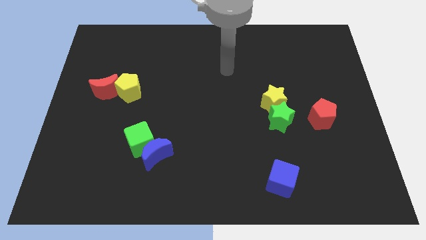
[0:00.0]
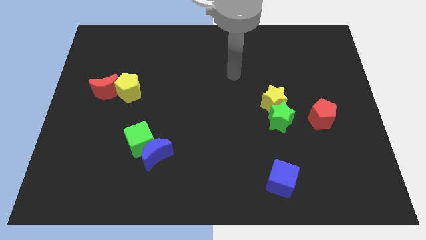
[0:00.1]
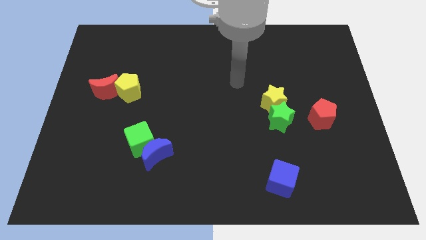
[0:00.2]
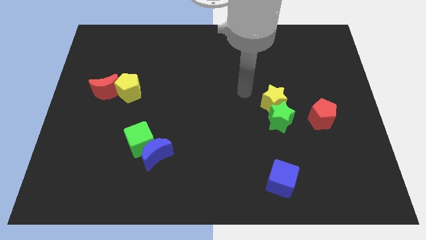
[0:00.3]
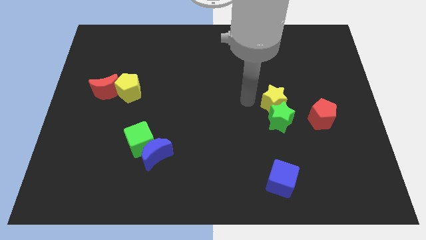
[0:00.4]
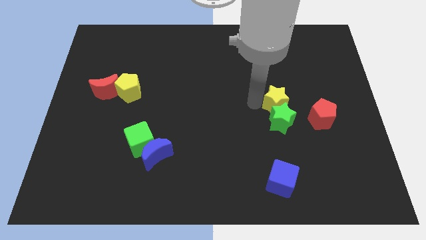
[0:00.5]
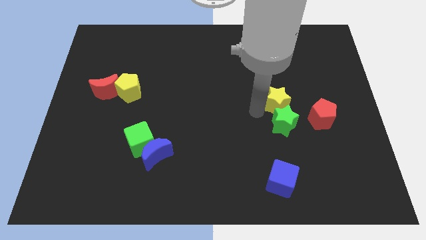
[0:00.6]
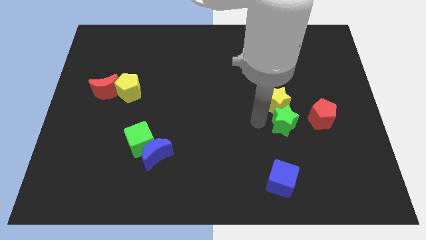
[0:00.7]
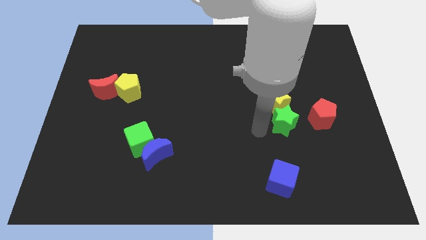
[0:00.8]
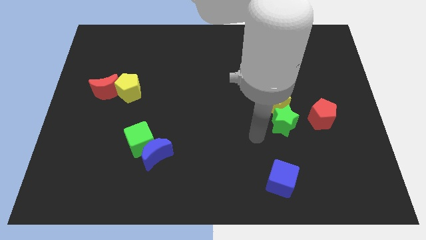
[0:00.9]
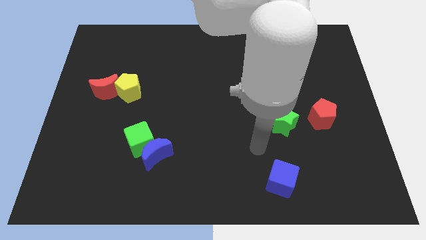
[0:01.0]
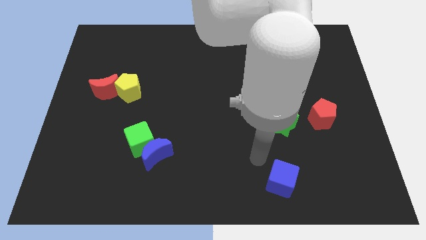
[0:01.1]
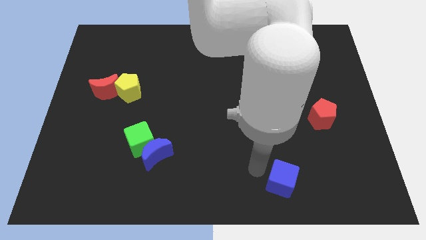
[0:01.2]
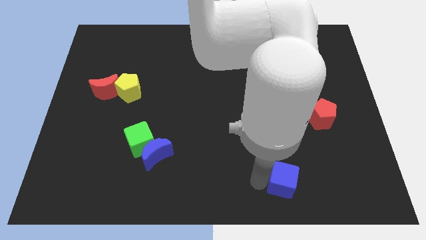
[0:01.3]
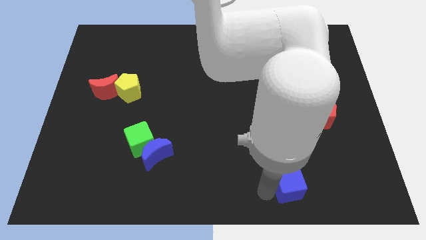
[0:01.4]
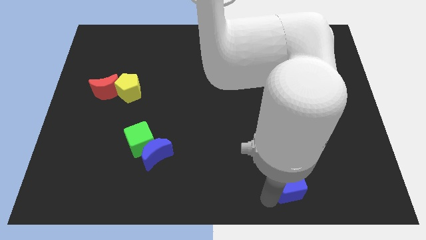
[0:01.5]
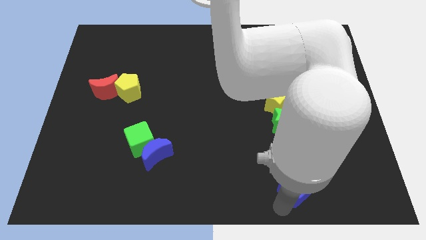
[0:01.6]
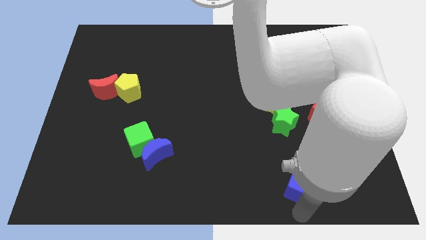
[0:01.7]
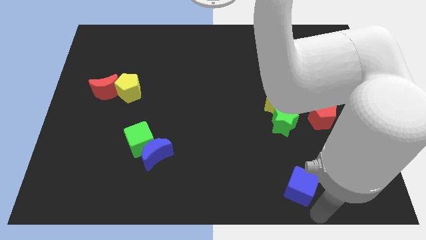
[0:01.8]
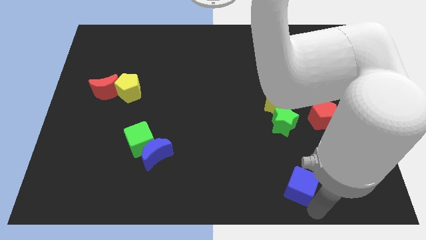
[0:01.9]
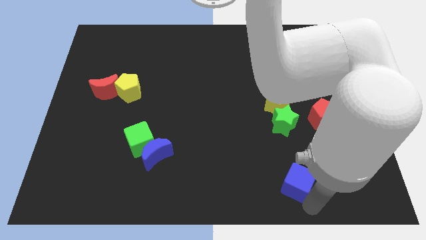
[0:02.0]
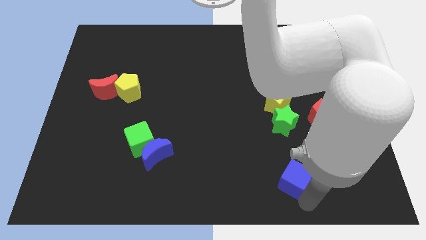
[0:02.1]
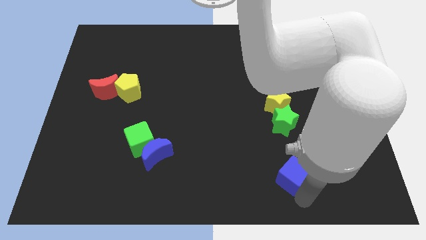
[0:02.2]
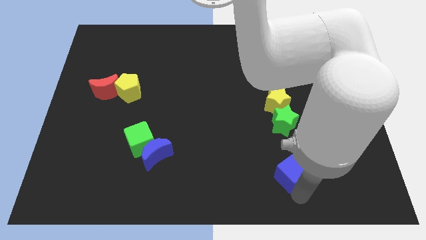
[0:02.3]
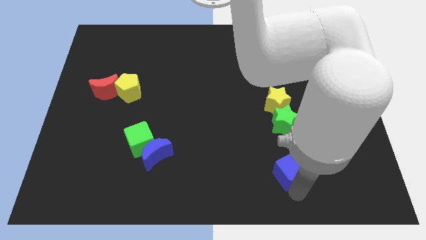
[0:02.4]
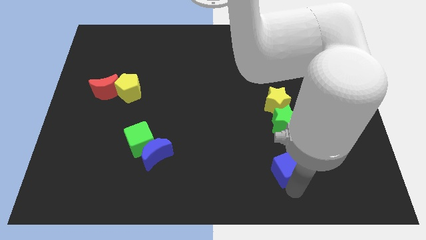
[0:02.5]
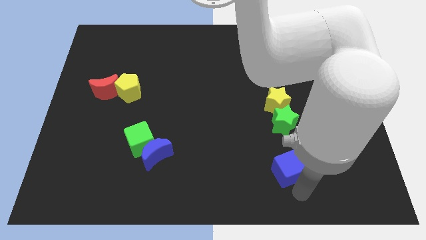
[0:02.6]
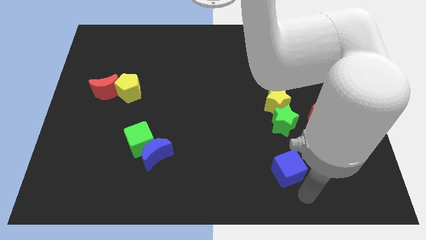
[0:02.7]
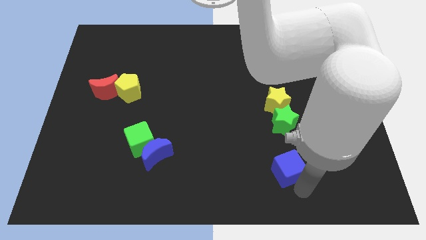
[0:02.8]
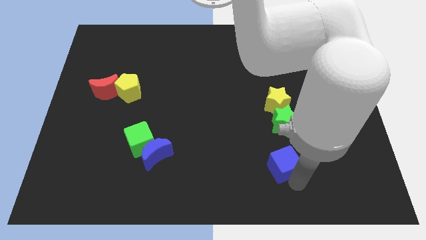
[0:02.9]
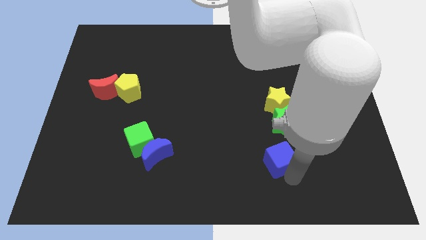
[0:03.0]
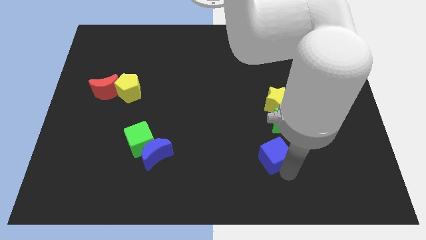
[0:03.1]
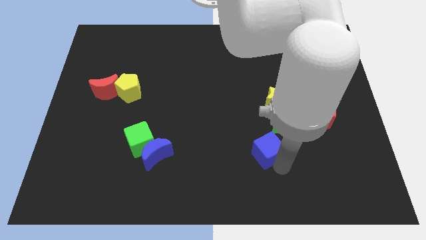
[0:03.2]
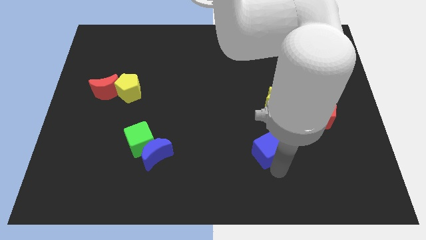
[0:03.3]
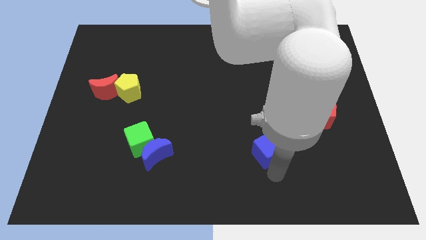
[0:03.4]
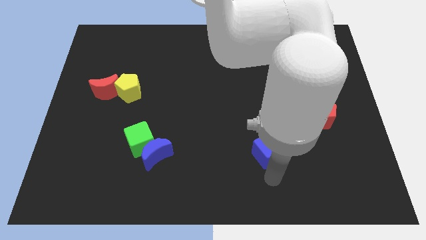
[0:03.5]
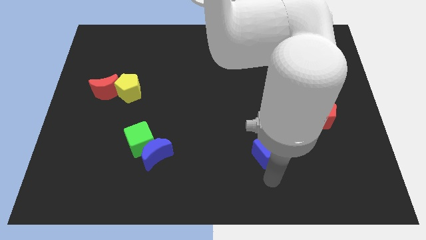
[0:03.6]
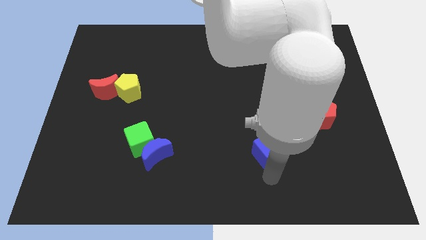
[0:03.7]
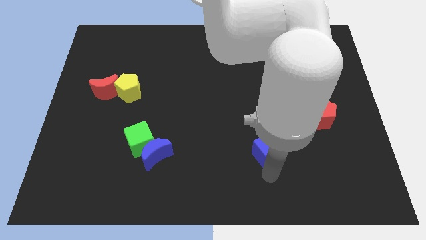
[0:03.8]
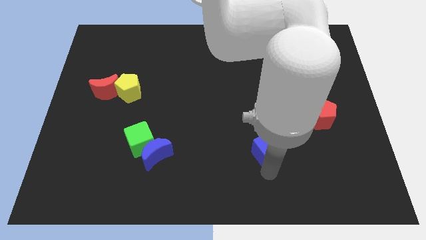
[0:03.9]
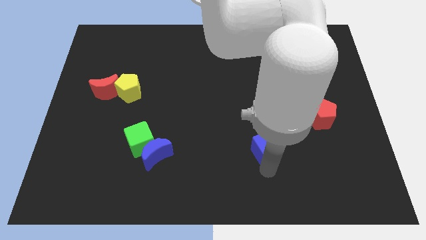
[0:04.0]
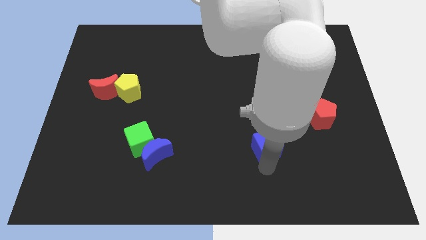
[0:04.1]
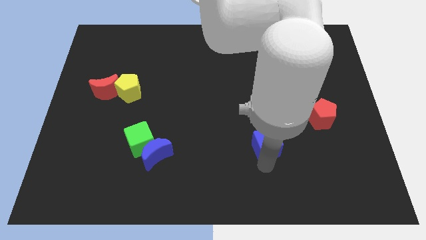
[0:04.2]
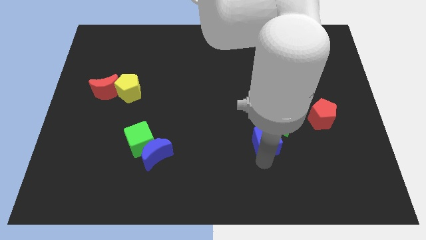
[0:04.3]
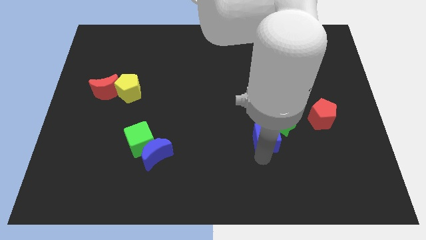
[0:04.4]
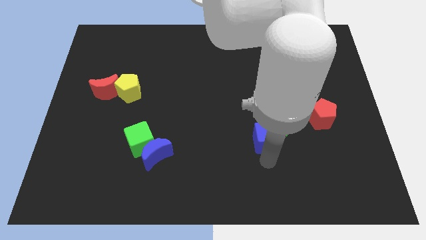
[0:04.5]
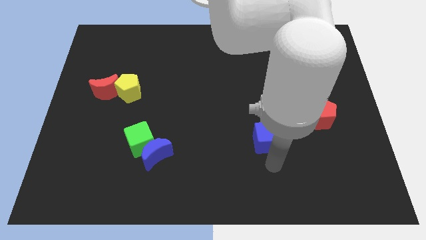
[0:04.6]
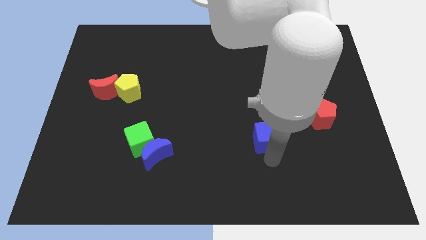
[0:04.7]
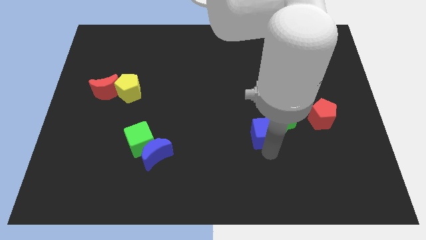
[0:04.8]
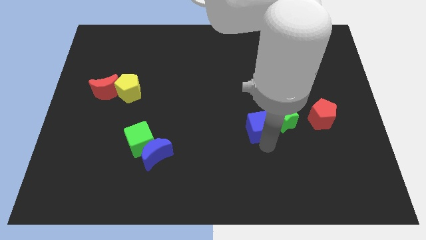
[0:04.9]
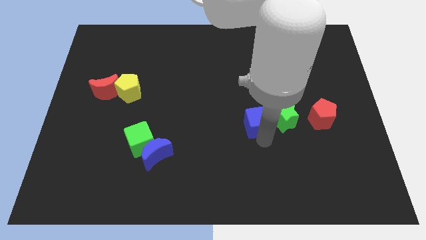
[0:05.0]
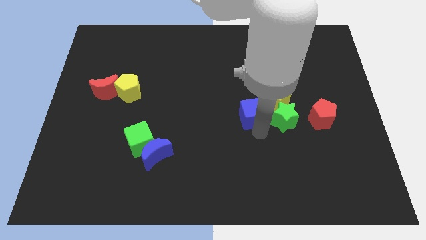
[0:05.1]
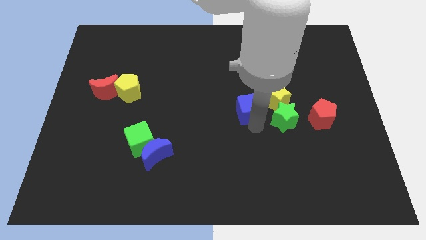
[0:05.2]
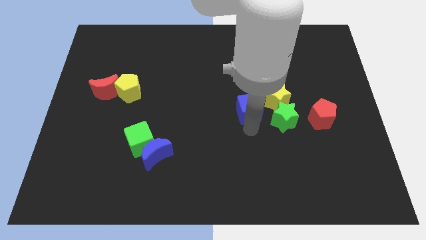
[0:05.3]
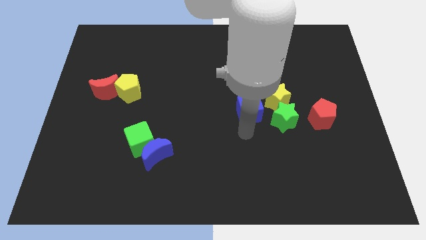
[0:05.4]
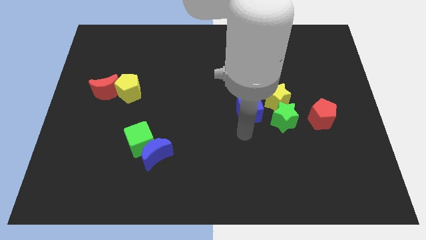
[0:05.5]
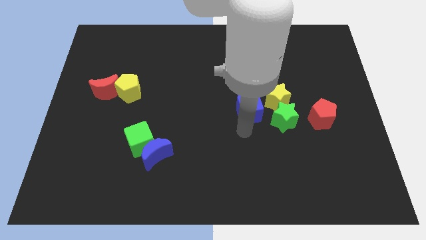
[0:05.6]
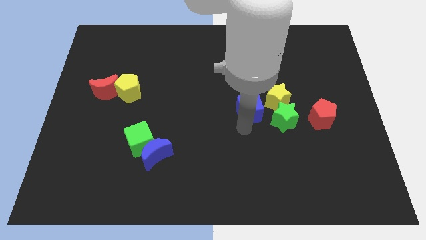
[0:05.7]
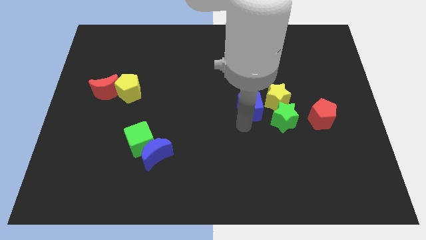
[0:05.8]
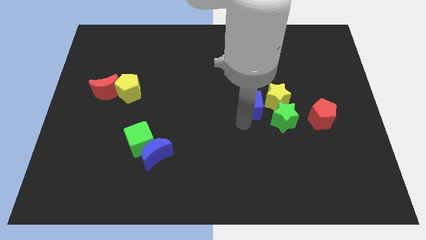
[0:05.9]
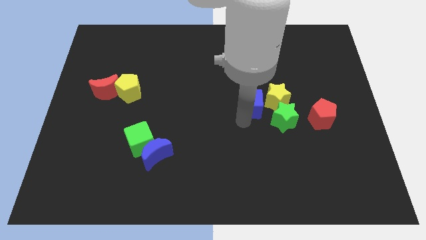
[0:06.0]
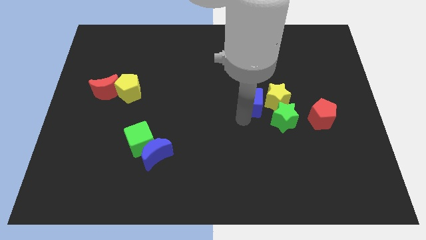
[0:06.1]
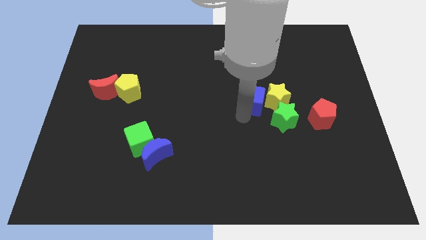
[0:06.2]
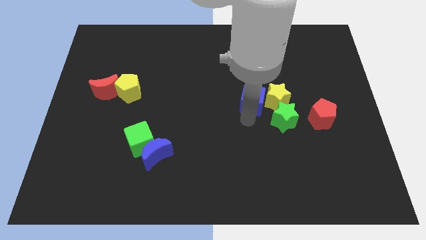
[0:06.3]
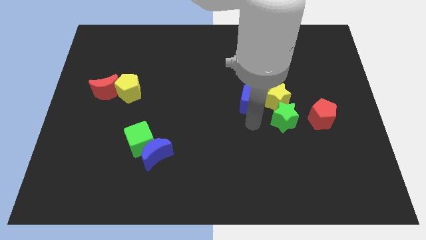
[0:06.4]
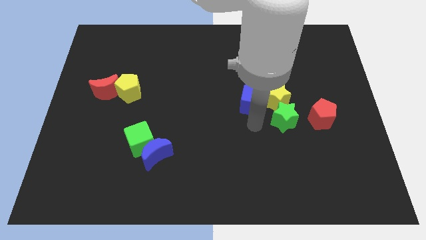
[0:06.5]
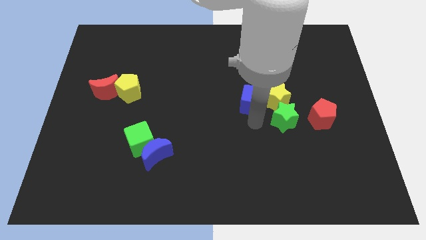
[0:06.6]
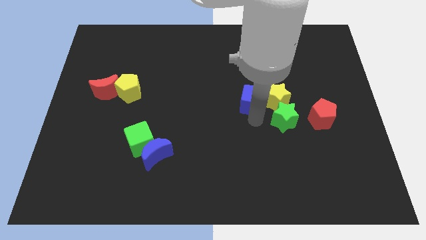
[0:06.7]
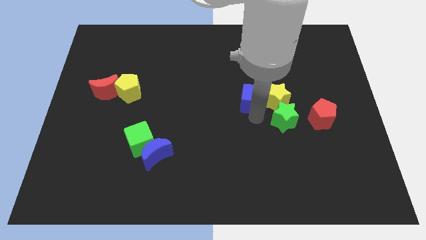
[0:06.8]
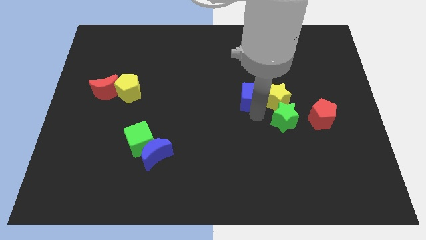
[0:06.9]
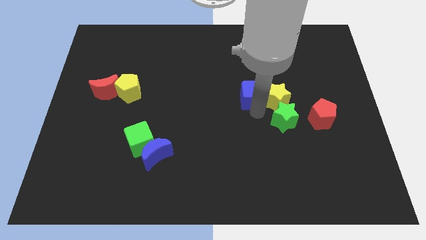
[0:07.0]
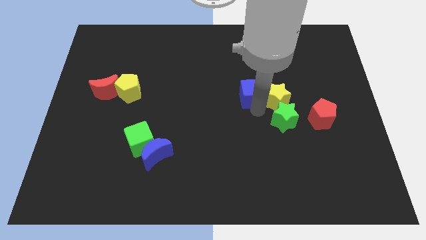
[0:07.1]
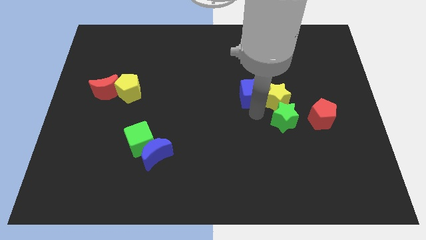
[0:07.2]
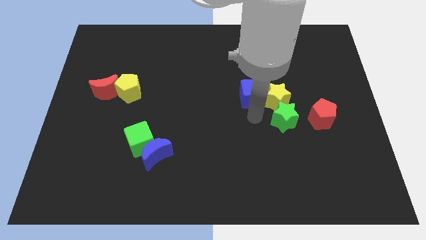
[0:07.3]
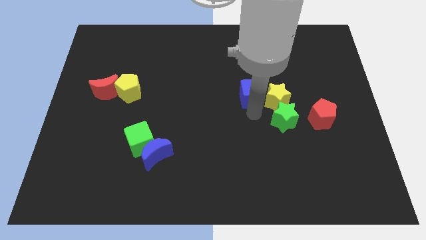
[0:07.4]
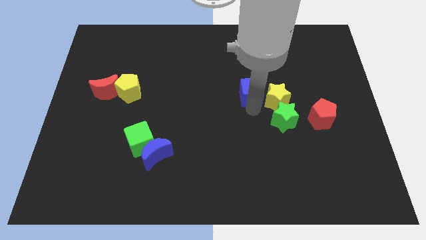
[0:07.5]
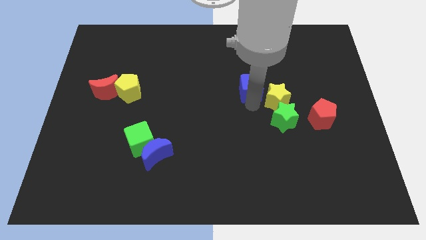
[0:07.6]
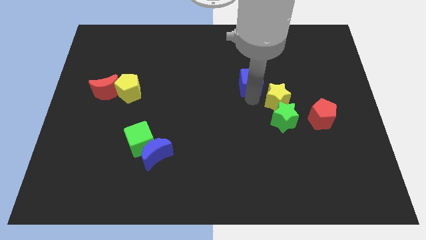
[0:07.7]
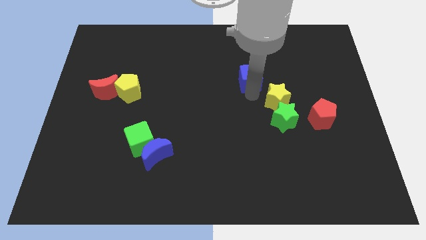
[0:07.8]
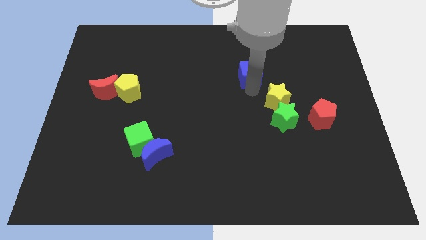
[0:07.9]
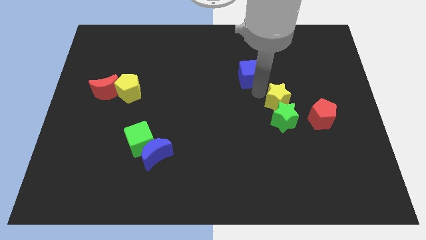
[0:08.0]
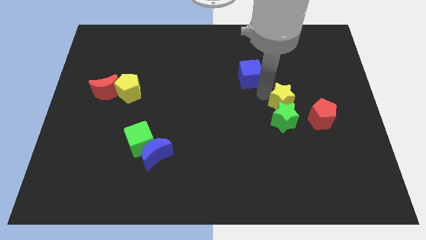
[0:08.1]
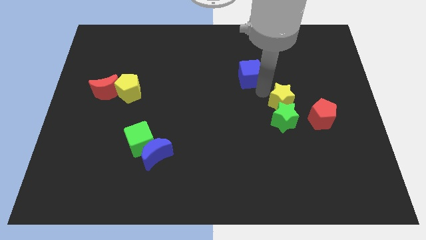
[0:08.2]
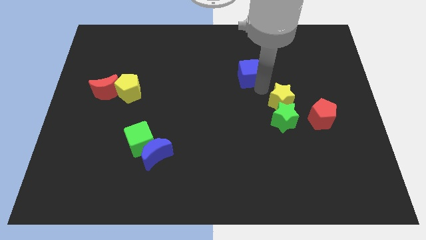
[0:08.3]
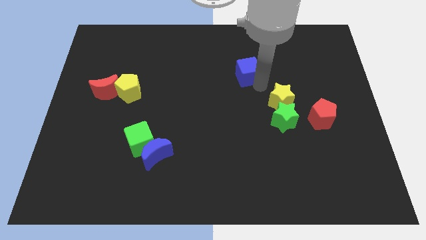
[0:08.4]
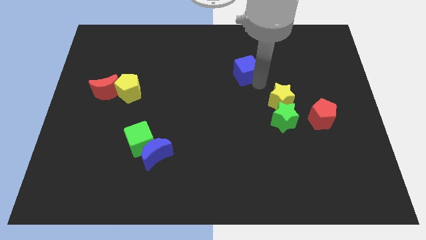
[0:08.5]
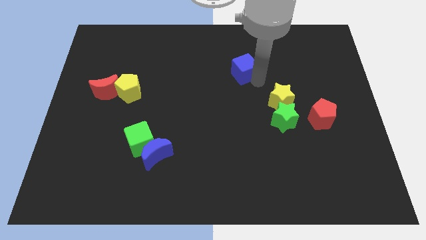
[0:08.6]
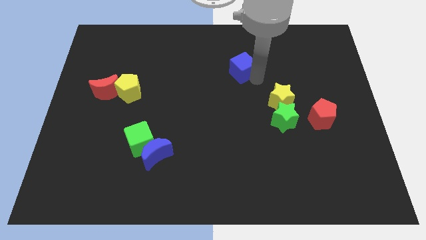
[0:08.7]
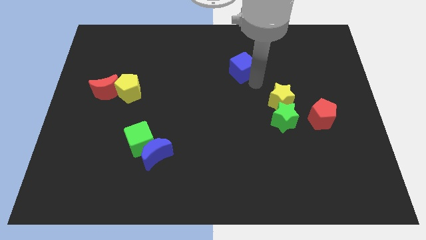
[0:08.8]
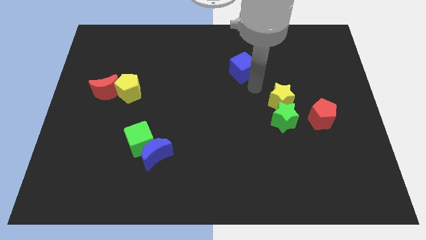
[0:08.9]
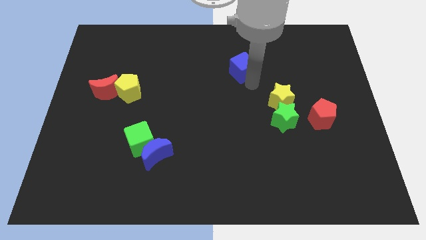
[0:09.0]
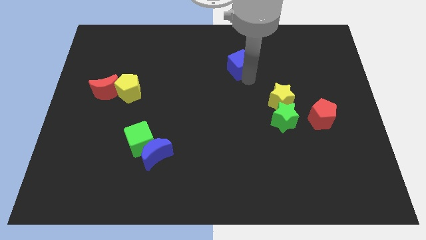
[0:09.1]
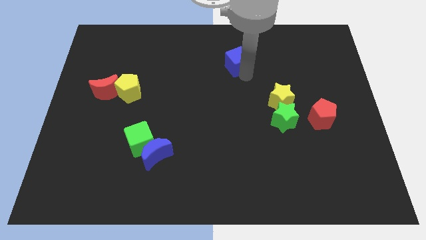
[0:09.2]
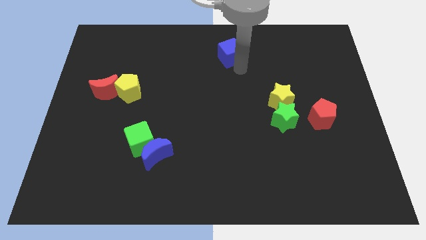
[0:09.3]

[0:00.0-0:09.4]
slide the blue cube to the top side
